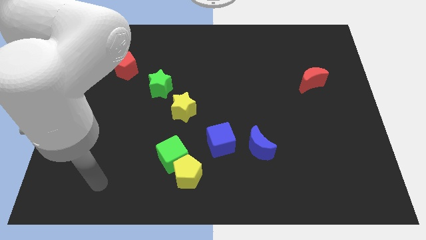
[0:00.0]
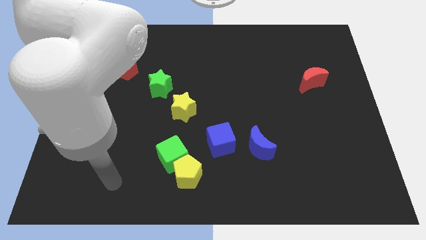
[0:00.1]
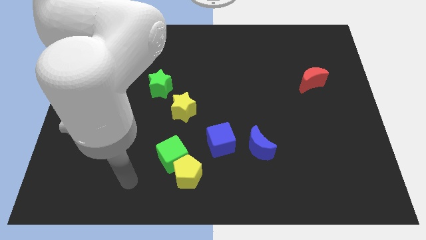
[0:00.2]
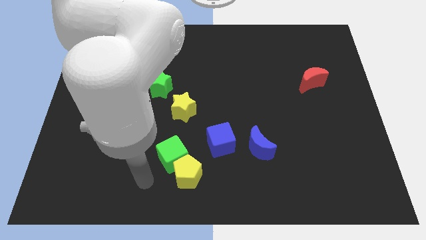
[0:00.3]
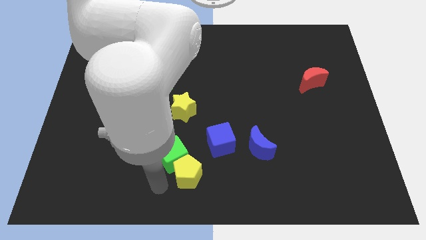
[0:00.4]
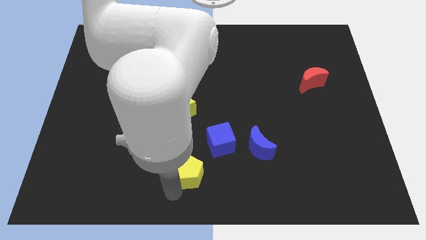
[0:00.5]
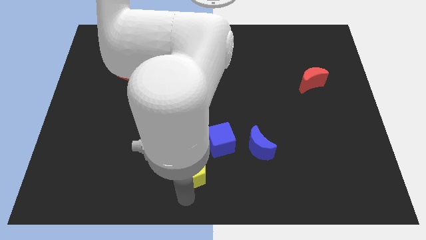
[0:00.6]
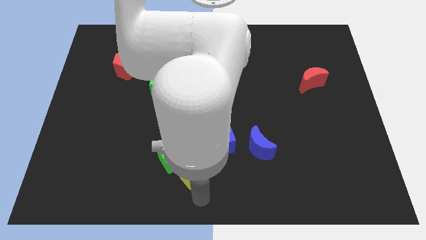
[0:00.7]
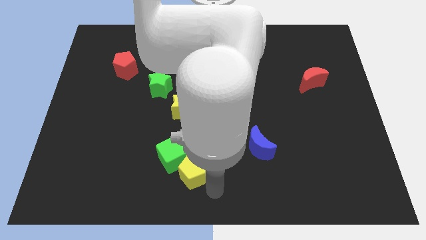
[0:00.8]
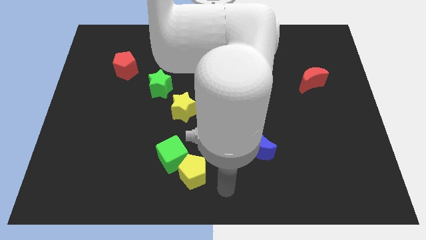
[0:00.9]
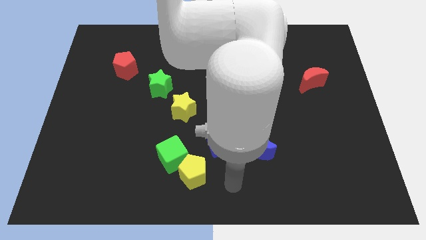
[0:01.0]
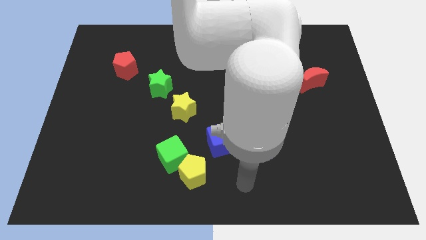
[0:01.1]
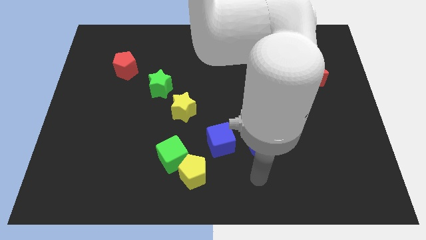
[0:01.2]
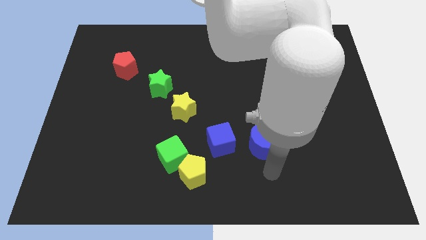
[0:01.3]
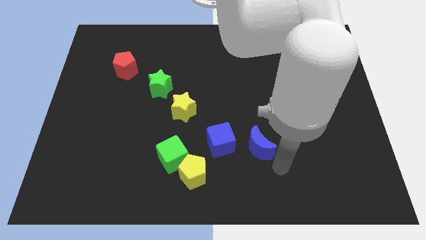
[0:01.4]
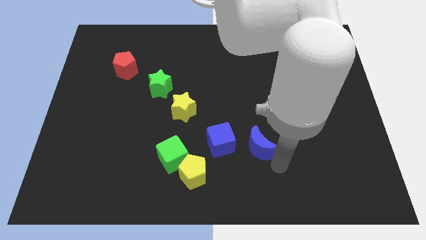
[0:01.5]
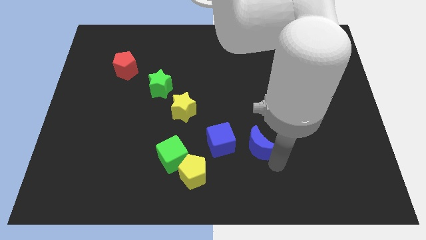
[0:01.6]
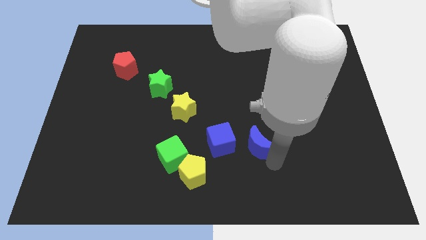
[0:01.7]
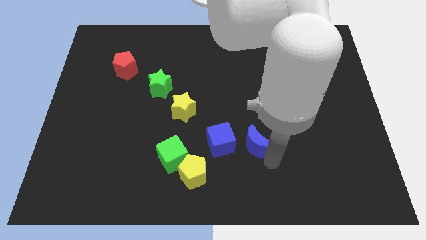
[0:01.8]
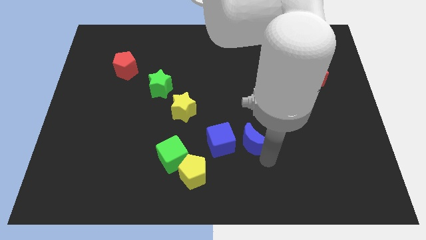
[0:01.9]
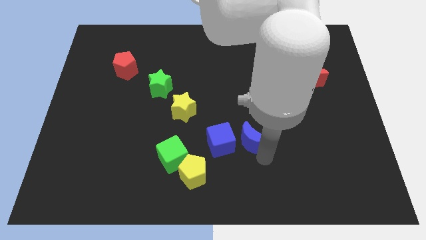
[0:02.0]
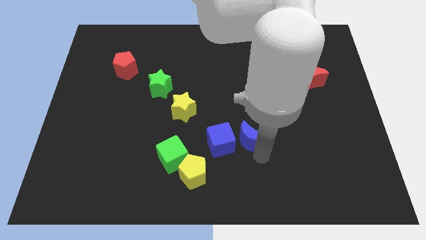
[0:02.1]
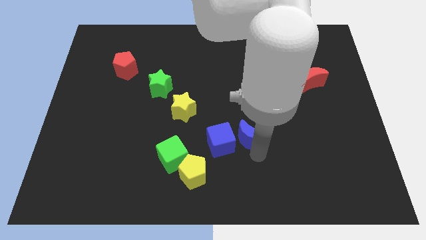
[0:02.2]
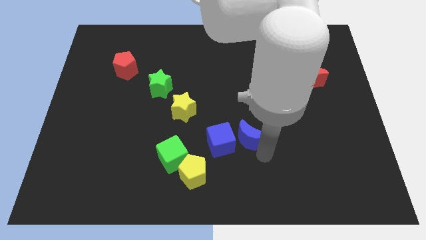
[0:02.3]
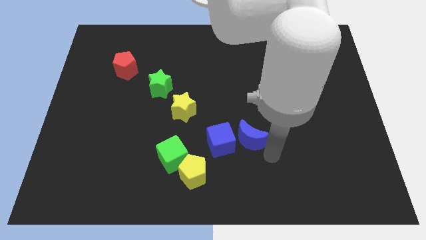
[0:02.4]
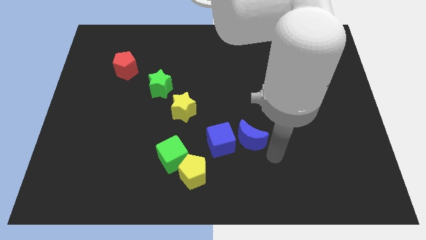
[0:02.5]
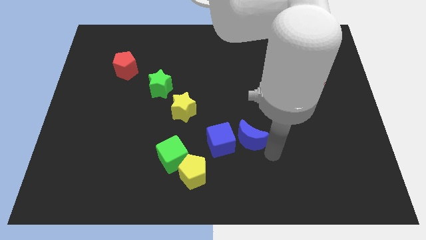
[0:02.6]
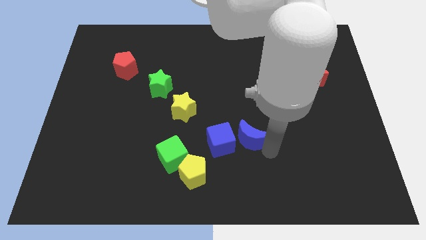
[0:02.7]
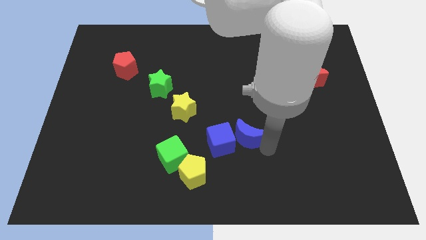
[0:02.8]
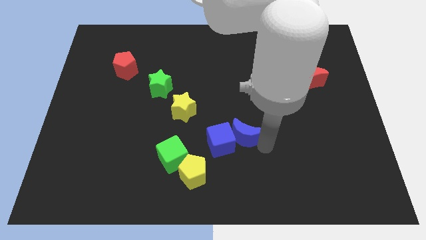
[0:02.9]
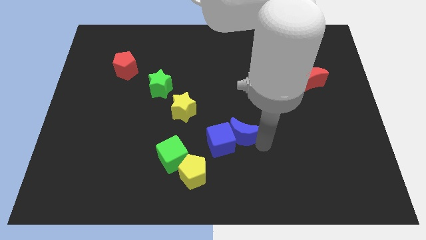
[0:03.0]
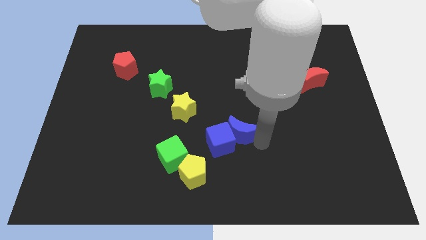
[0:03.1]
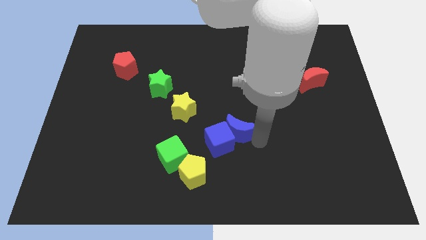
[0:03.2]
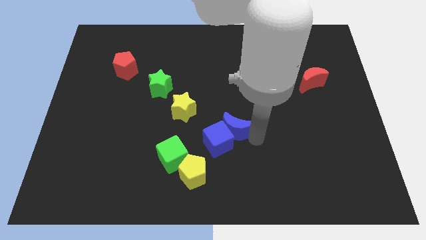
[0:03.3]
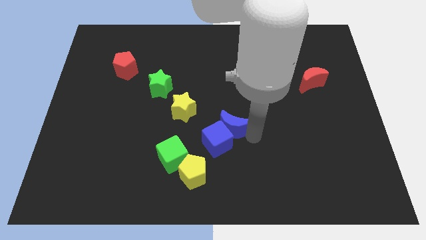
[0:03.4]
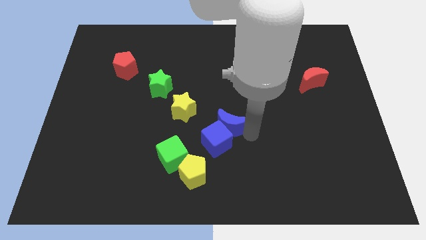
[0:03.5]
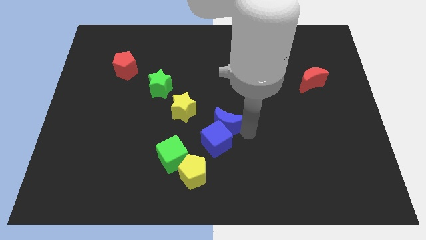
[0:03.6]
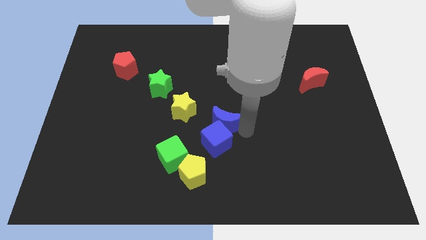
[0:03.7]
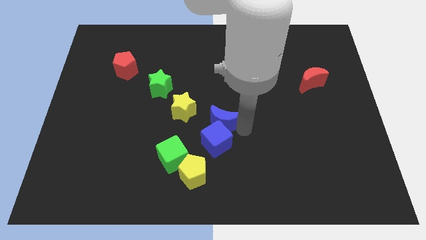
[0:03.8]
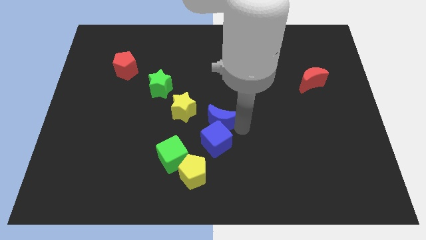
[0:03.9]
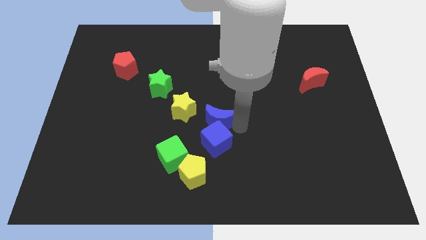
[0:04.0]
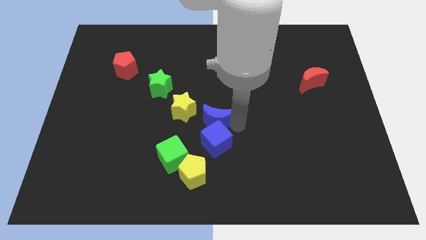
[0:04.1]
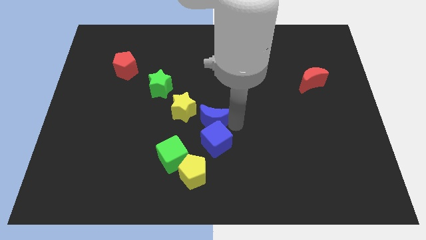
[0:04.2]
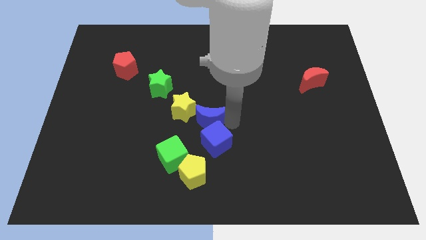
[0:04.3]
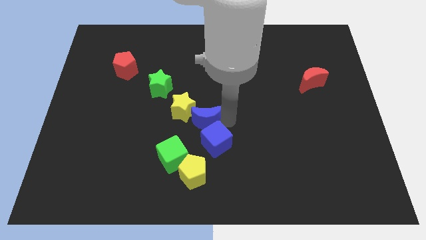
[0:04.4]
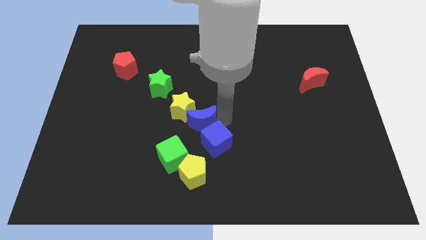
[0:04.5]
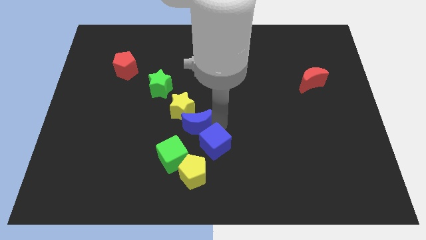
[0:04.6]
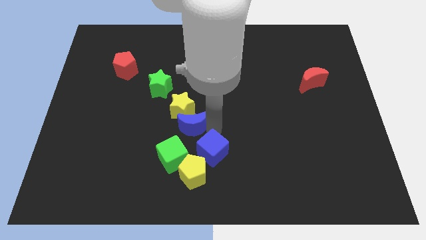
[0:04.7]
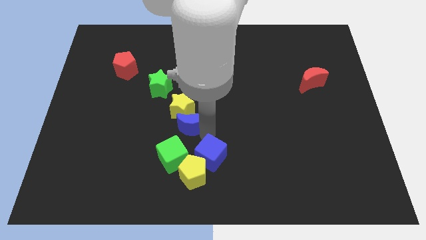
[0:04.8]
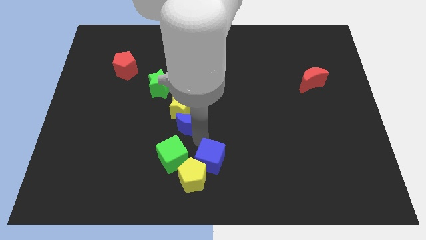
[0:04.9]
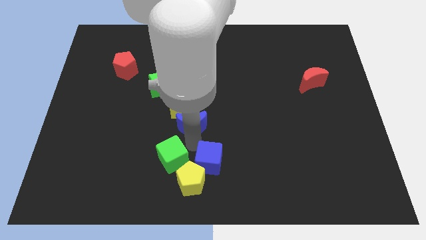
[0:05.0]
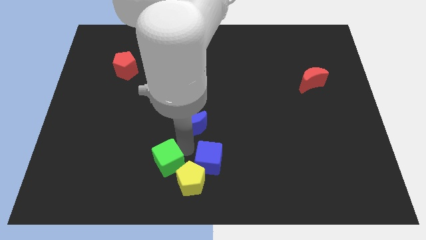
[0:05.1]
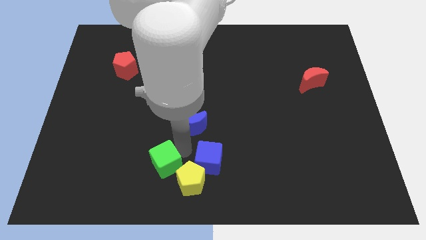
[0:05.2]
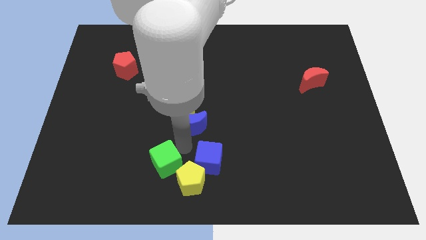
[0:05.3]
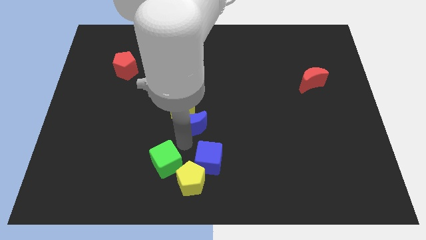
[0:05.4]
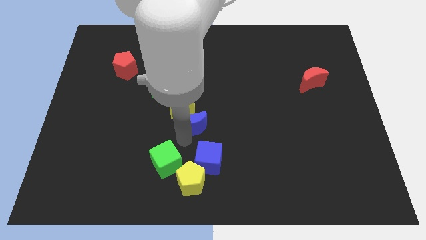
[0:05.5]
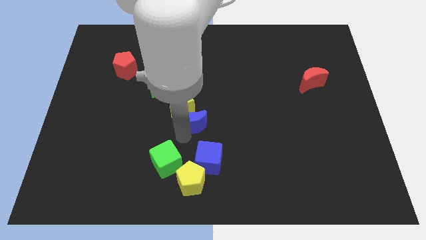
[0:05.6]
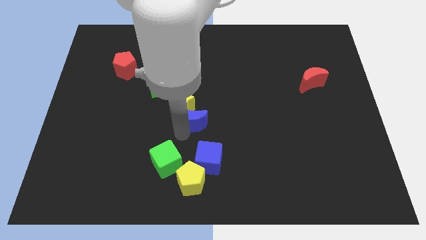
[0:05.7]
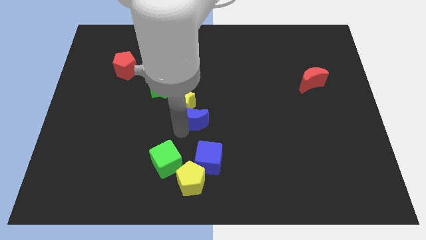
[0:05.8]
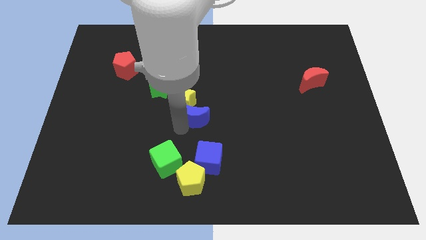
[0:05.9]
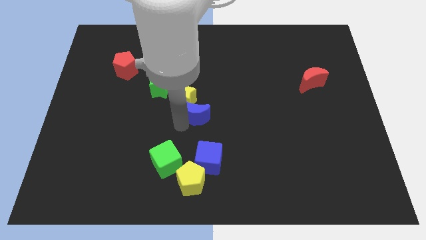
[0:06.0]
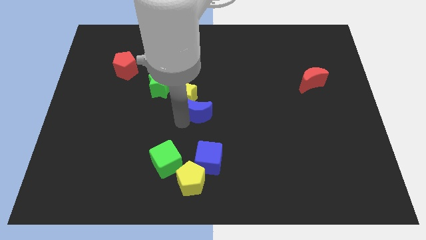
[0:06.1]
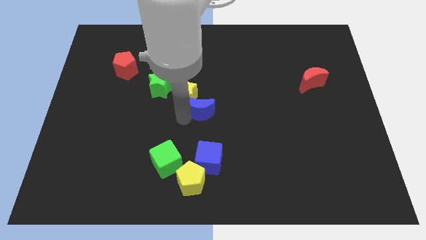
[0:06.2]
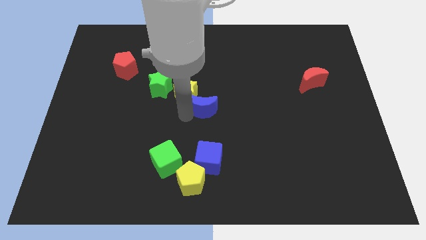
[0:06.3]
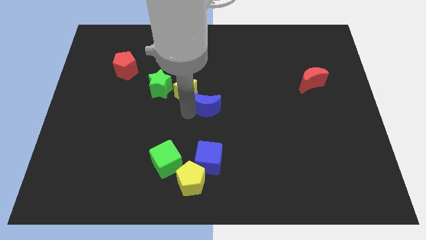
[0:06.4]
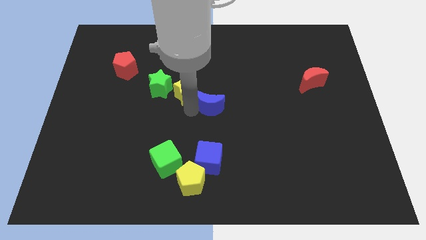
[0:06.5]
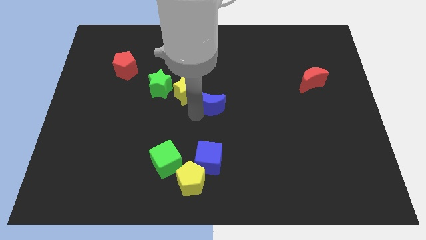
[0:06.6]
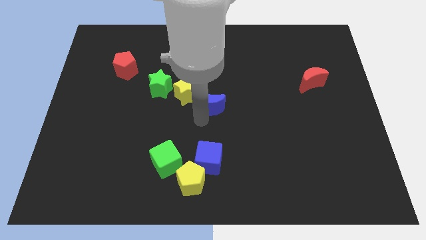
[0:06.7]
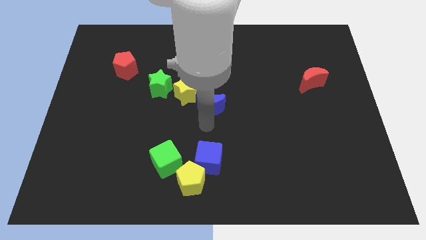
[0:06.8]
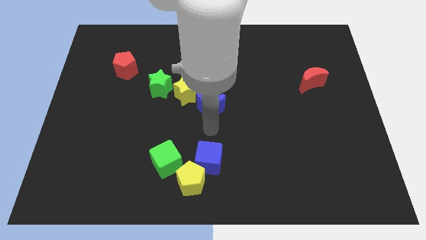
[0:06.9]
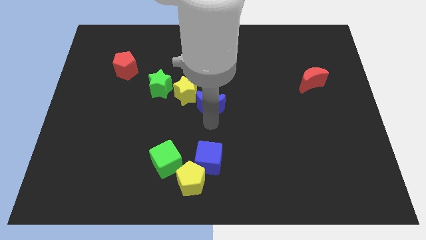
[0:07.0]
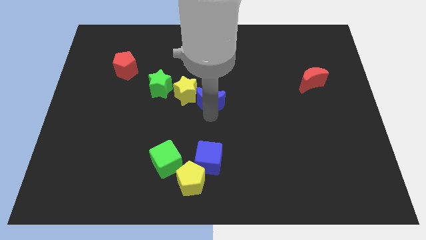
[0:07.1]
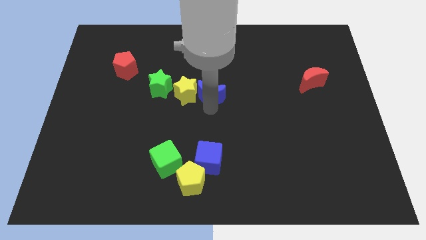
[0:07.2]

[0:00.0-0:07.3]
put the blue moon to the top right of the yellow star

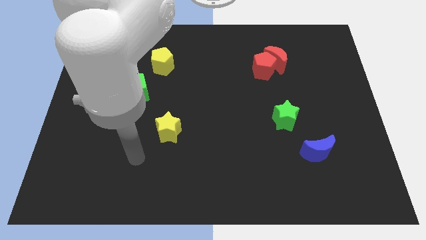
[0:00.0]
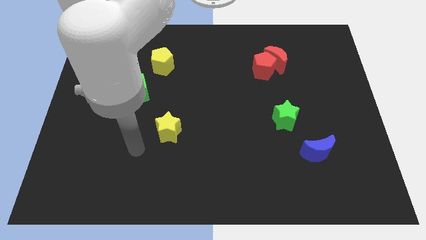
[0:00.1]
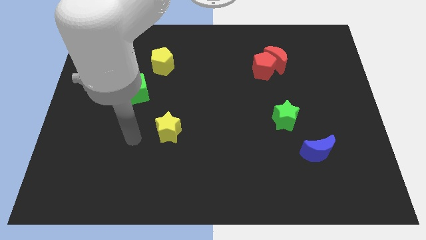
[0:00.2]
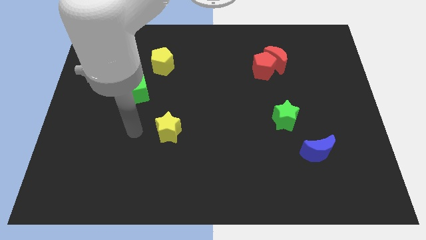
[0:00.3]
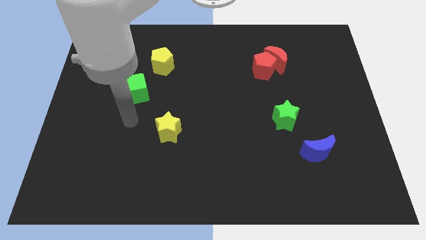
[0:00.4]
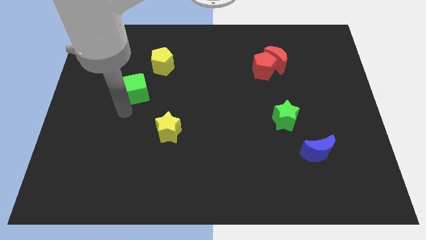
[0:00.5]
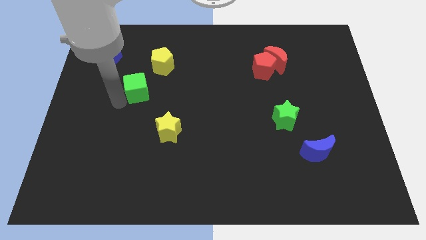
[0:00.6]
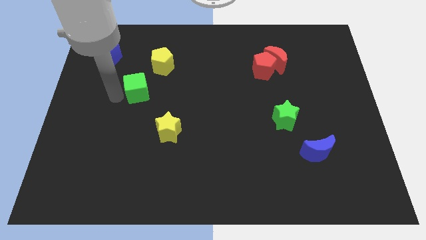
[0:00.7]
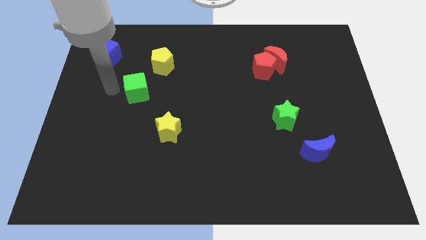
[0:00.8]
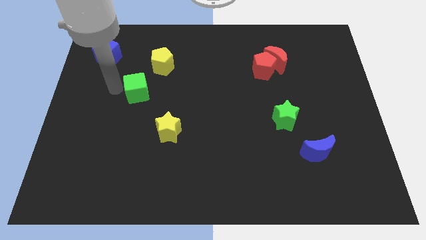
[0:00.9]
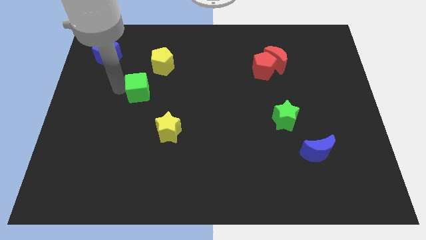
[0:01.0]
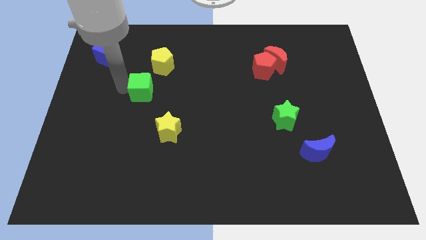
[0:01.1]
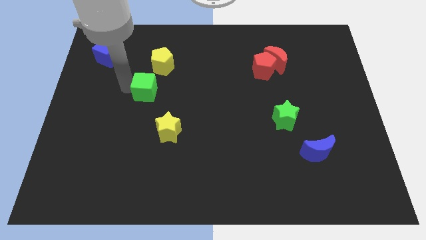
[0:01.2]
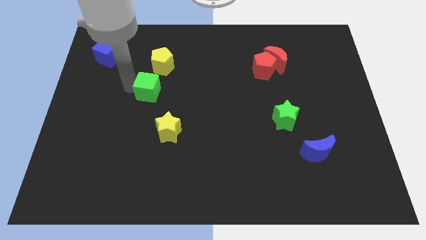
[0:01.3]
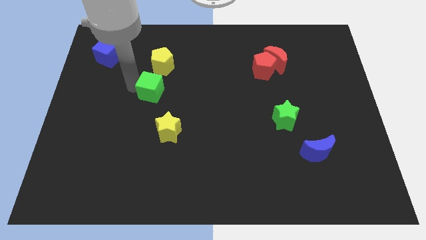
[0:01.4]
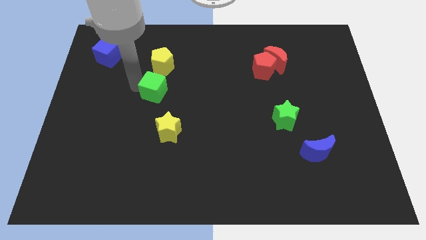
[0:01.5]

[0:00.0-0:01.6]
slide the green cube above the yellow star
